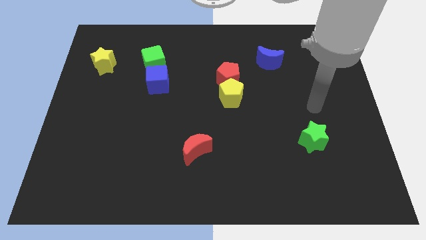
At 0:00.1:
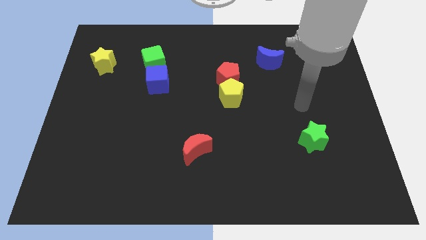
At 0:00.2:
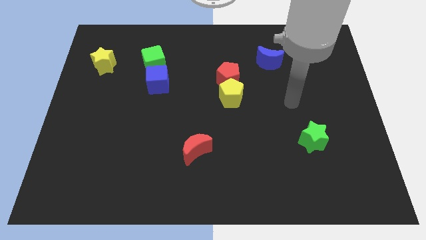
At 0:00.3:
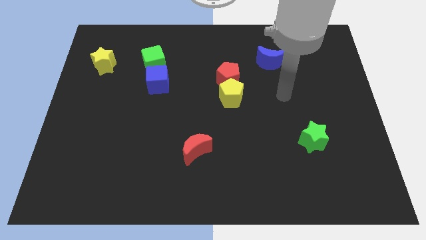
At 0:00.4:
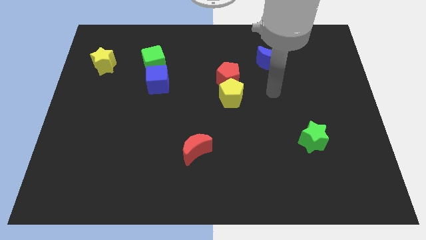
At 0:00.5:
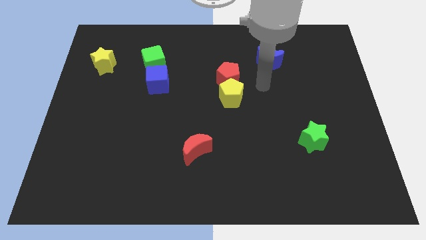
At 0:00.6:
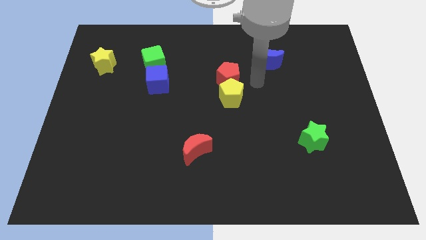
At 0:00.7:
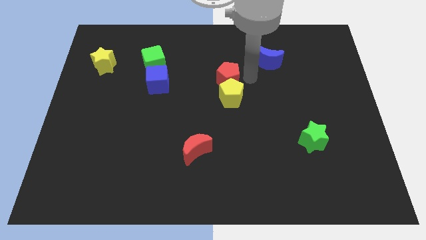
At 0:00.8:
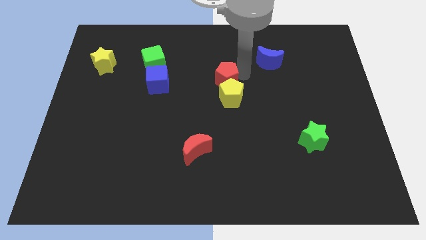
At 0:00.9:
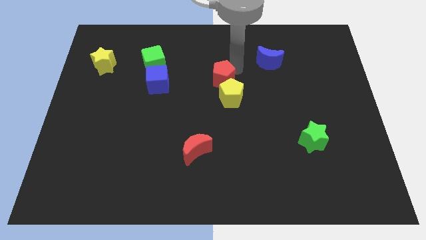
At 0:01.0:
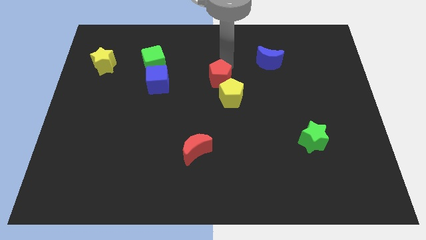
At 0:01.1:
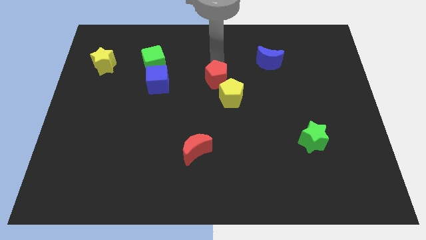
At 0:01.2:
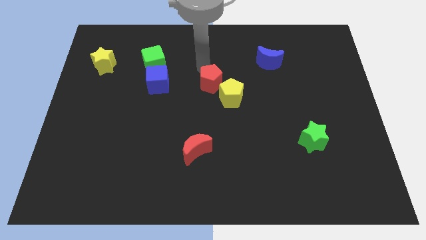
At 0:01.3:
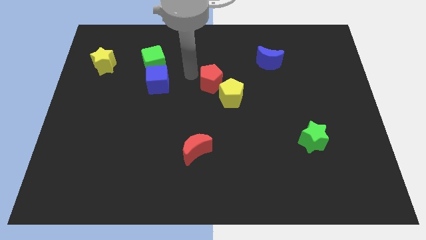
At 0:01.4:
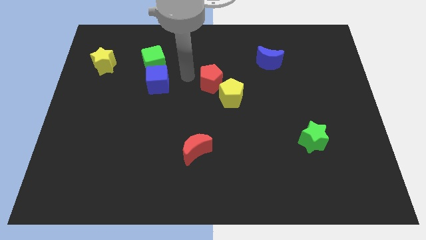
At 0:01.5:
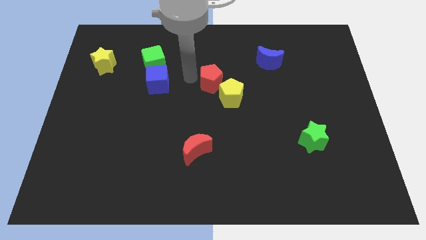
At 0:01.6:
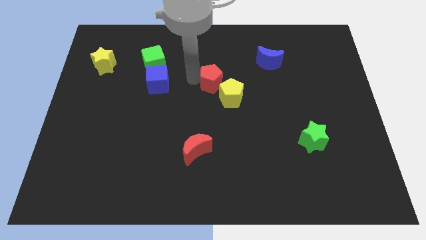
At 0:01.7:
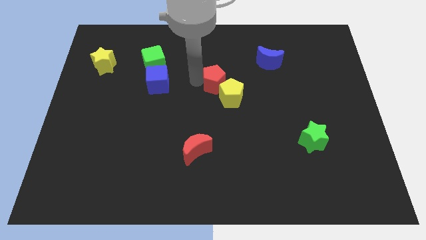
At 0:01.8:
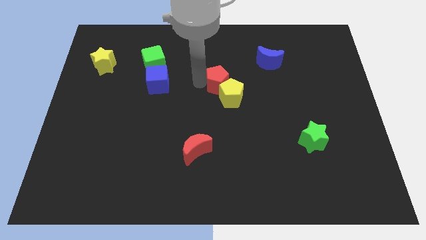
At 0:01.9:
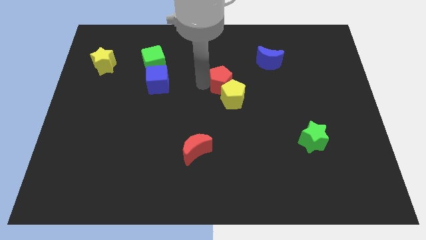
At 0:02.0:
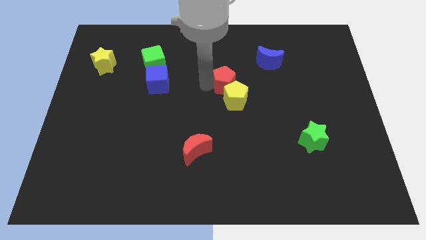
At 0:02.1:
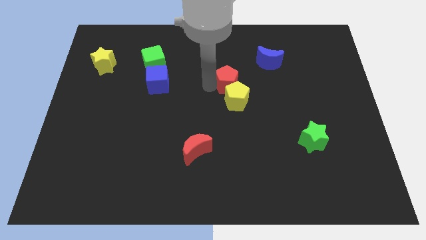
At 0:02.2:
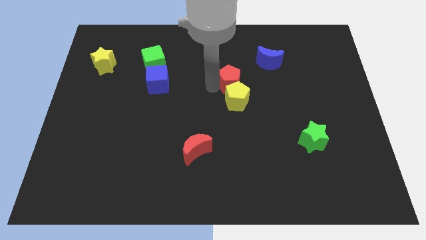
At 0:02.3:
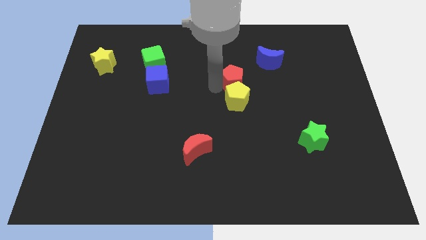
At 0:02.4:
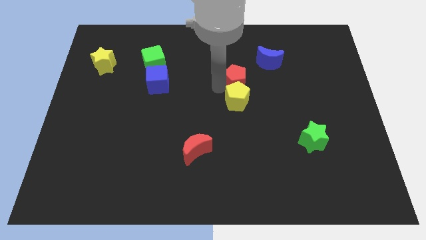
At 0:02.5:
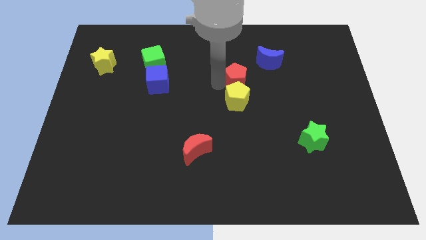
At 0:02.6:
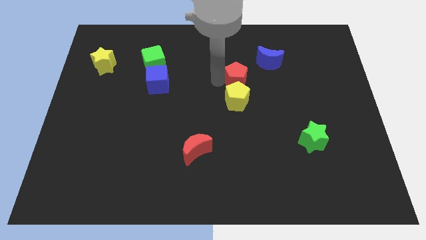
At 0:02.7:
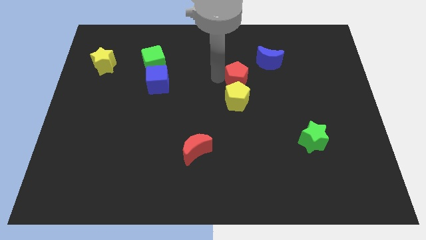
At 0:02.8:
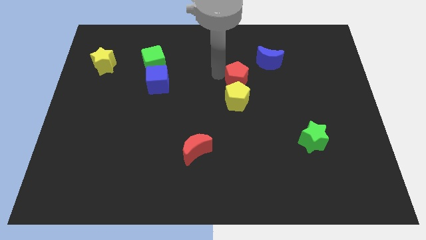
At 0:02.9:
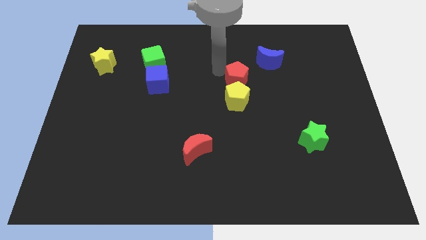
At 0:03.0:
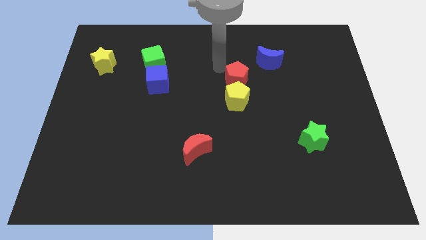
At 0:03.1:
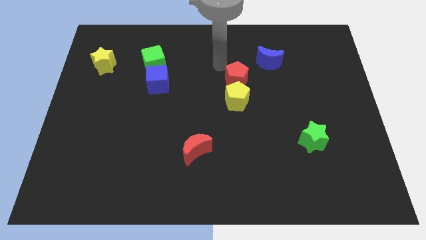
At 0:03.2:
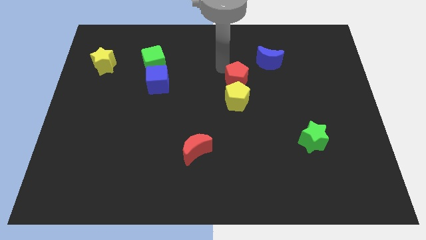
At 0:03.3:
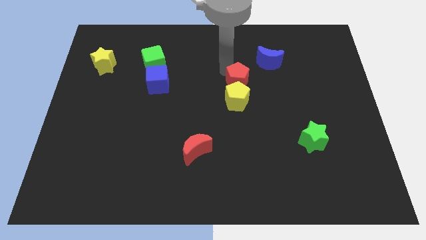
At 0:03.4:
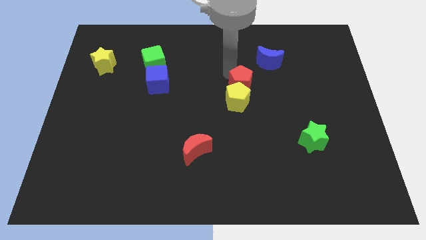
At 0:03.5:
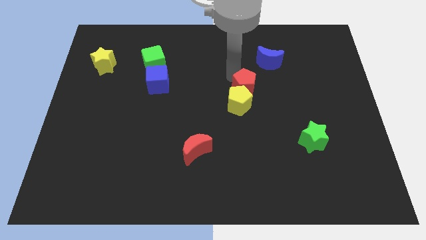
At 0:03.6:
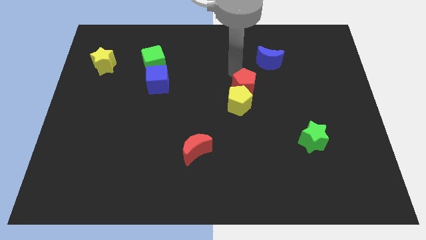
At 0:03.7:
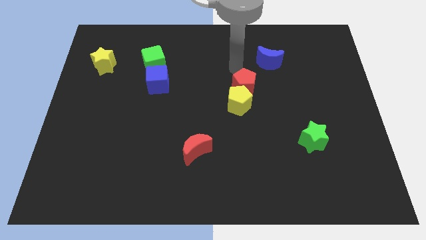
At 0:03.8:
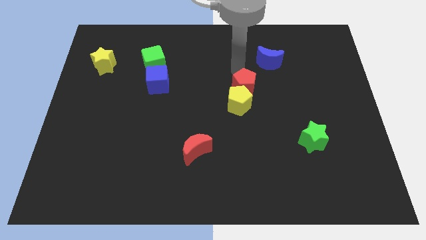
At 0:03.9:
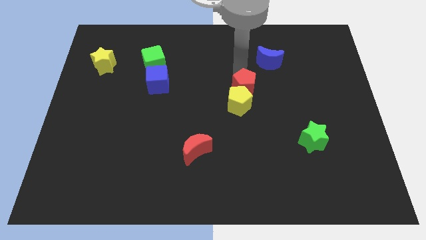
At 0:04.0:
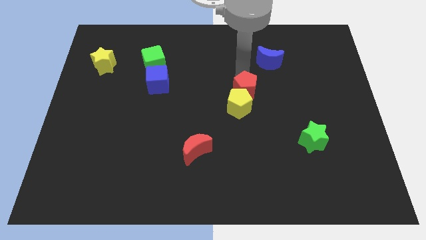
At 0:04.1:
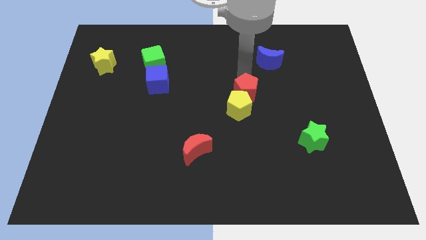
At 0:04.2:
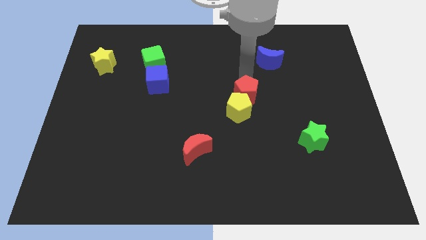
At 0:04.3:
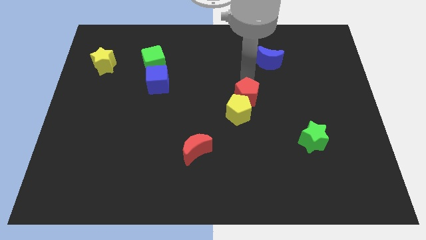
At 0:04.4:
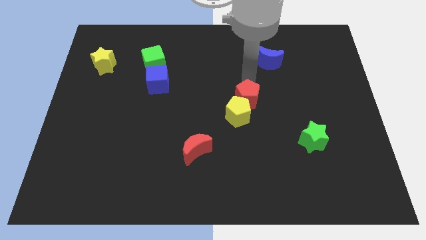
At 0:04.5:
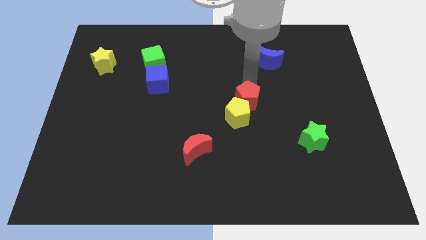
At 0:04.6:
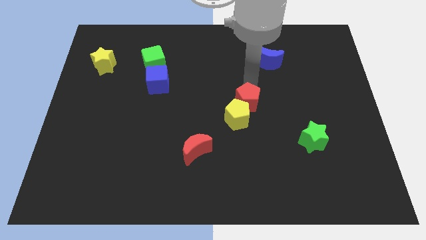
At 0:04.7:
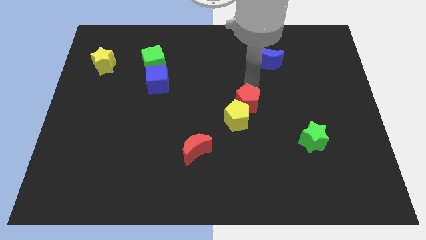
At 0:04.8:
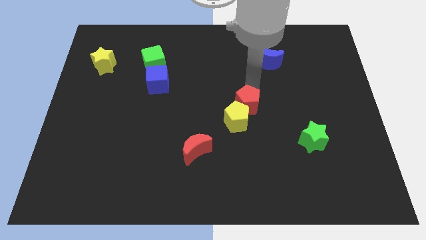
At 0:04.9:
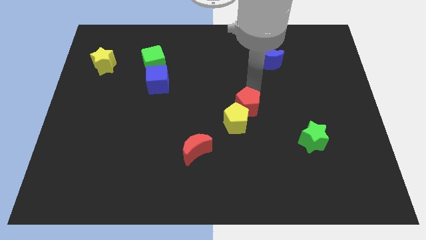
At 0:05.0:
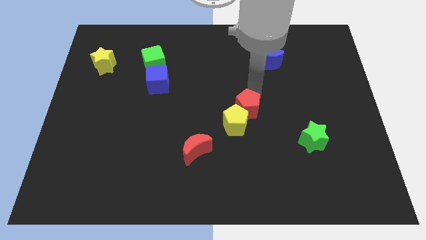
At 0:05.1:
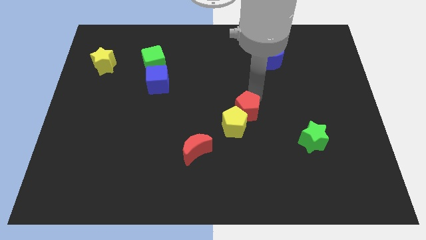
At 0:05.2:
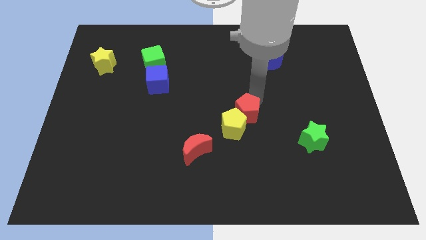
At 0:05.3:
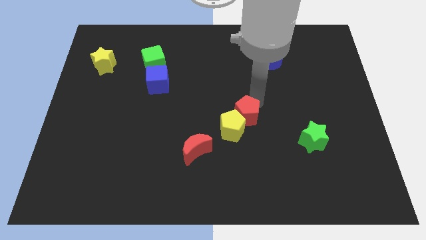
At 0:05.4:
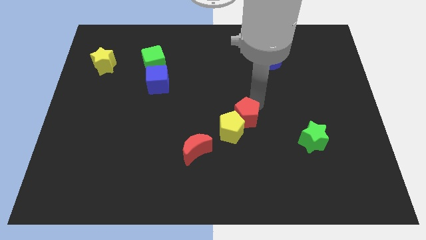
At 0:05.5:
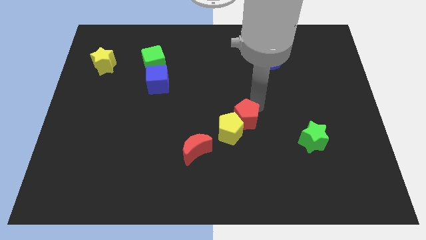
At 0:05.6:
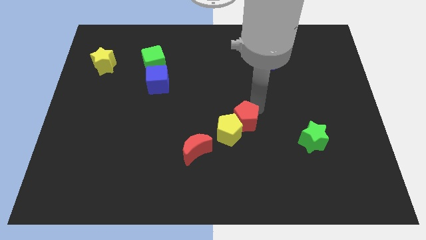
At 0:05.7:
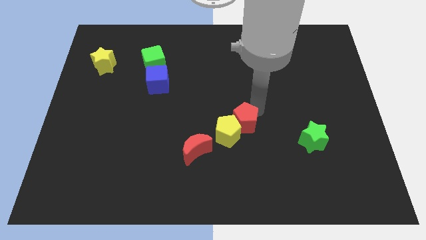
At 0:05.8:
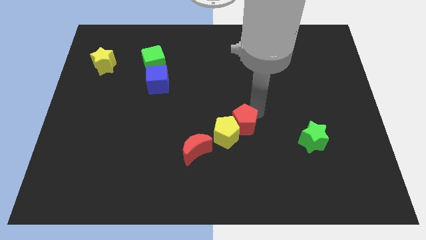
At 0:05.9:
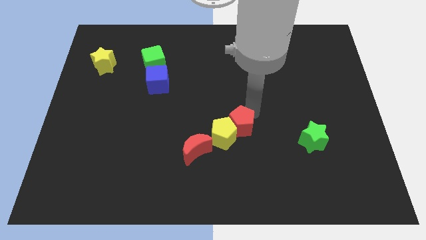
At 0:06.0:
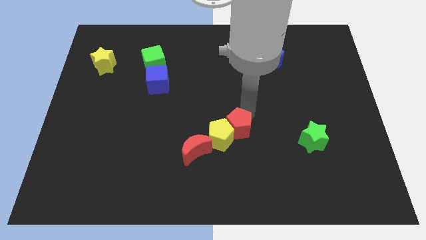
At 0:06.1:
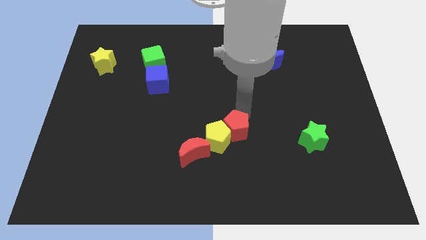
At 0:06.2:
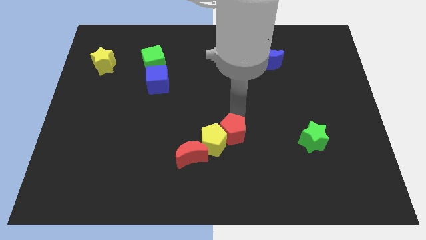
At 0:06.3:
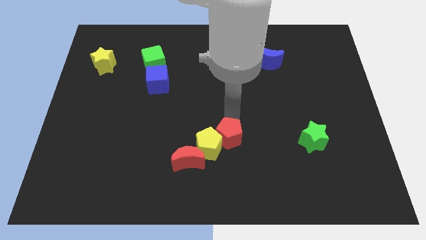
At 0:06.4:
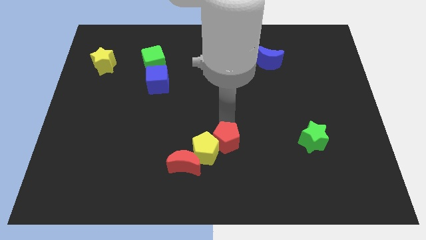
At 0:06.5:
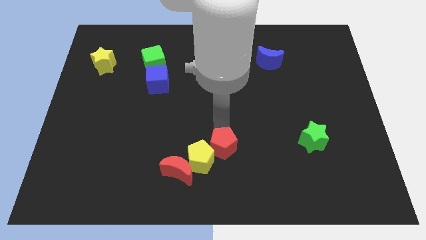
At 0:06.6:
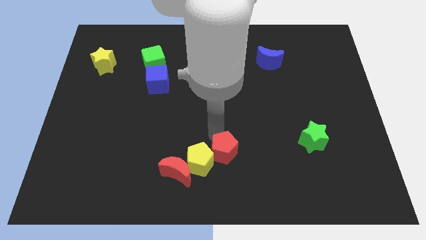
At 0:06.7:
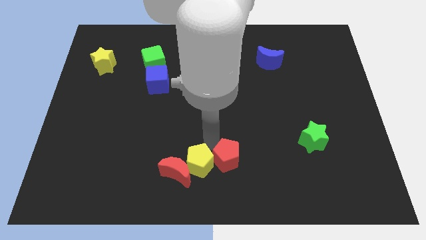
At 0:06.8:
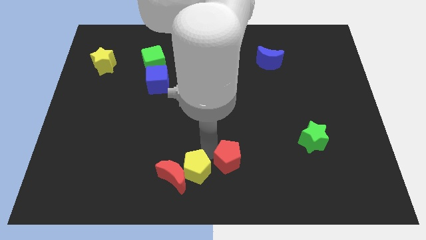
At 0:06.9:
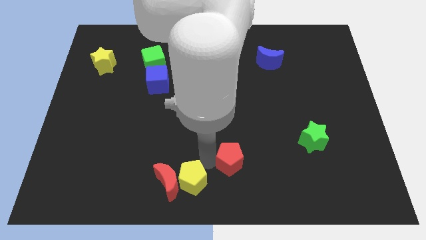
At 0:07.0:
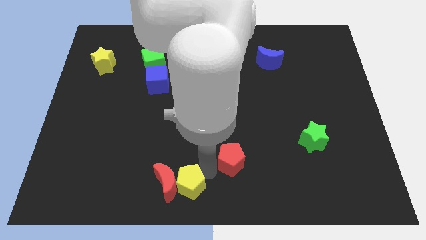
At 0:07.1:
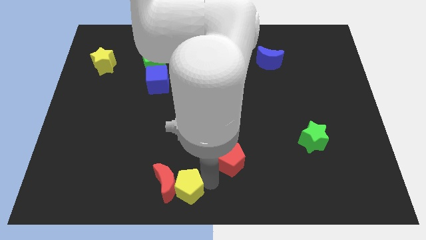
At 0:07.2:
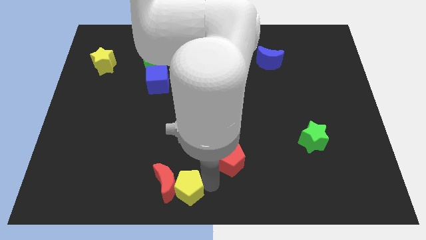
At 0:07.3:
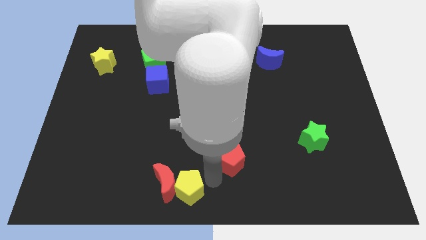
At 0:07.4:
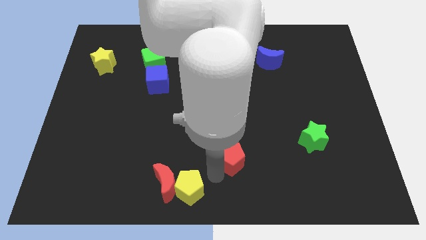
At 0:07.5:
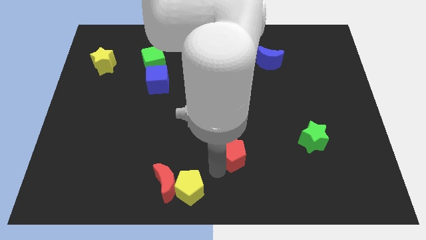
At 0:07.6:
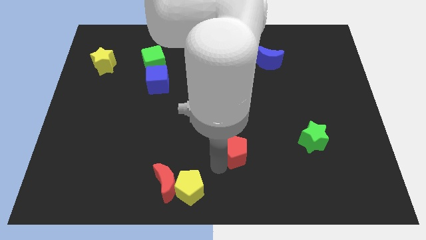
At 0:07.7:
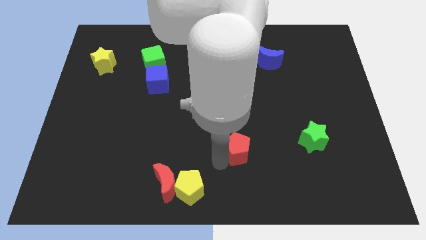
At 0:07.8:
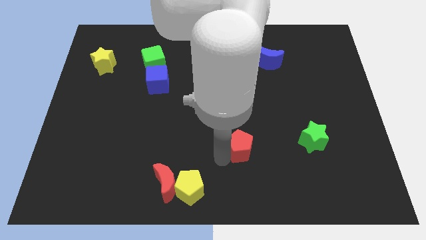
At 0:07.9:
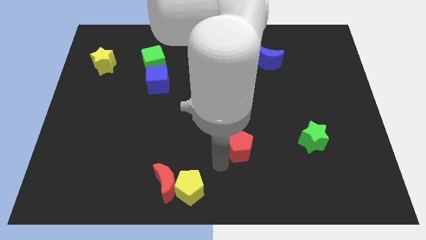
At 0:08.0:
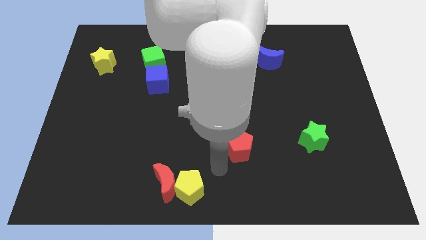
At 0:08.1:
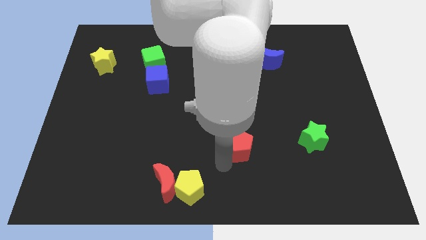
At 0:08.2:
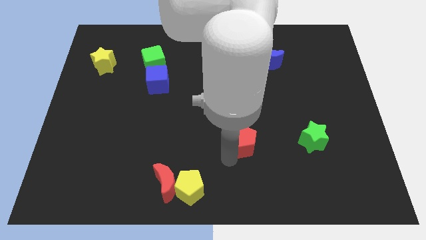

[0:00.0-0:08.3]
put the red pentagon left of the green star
